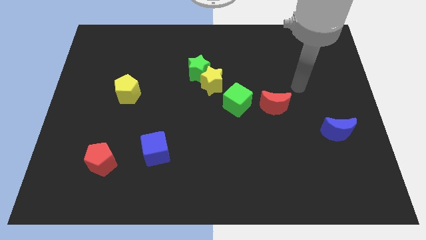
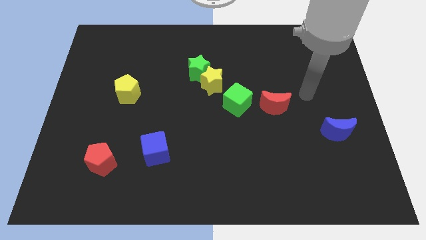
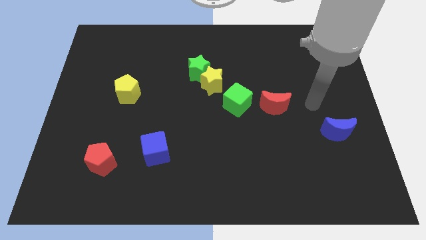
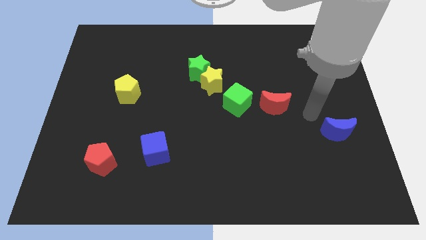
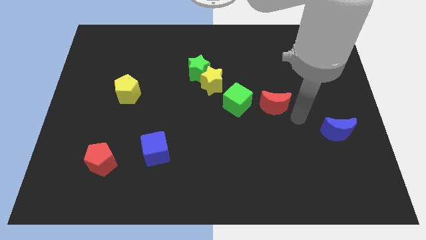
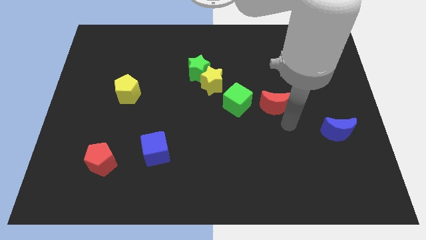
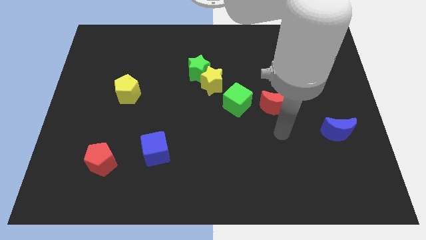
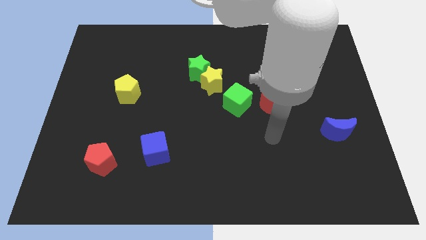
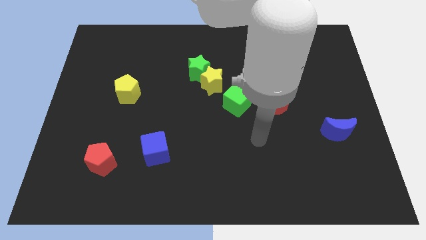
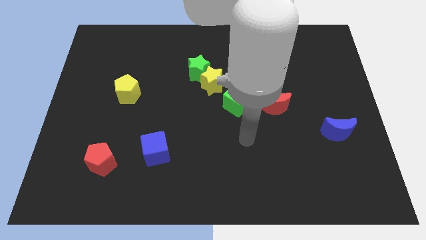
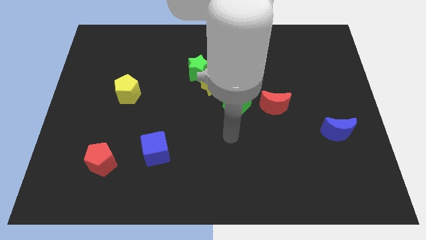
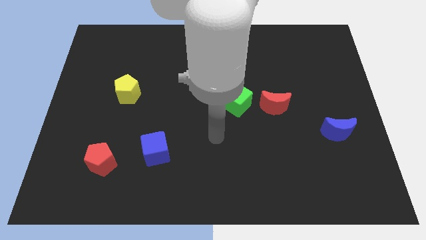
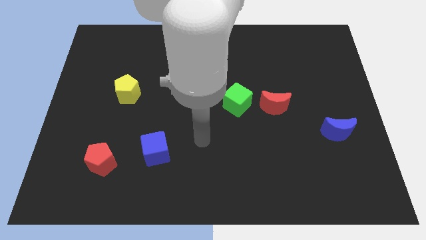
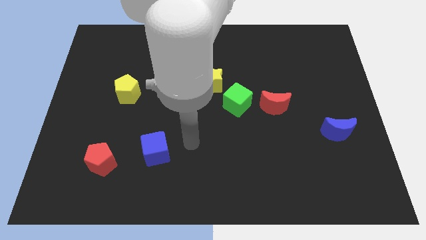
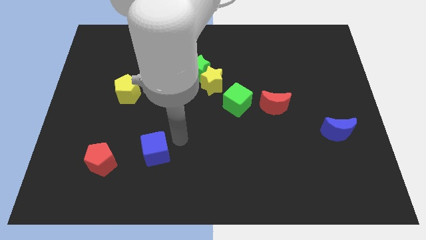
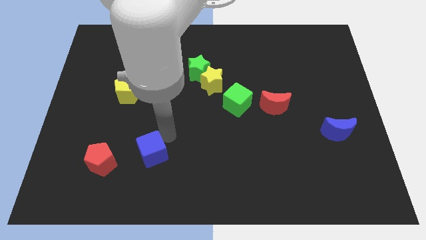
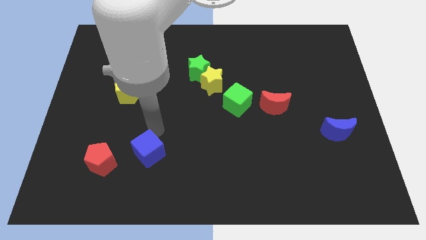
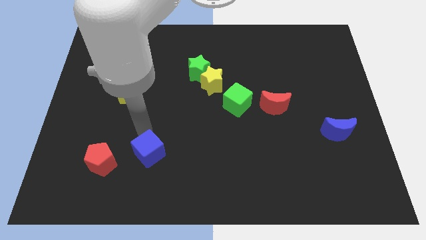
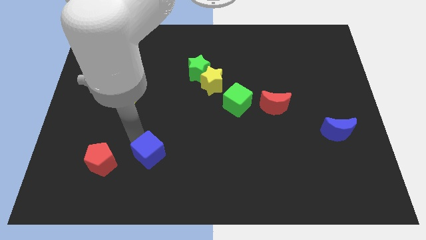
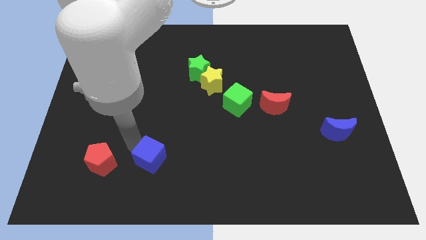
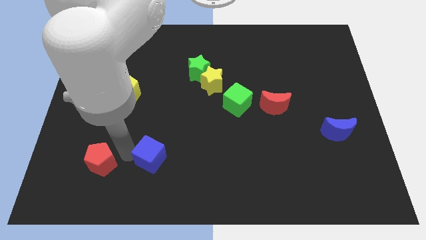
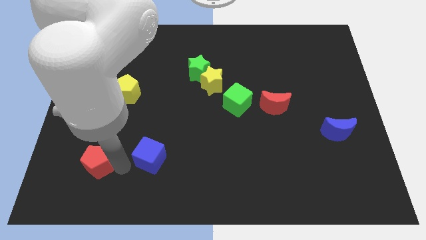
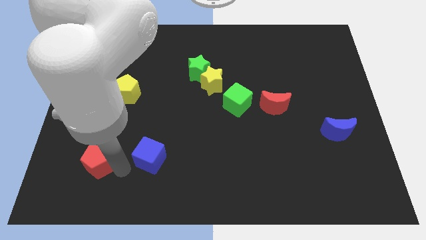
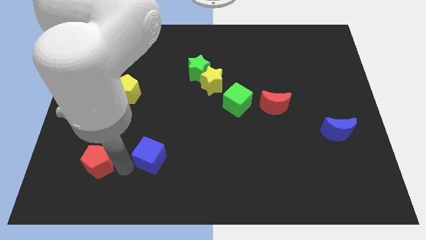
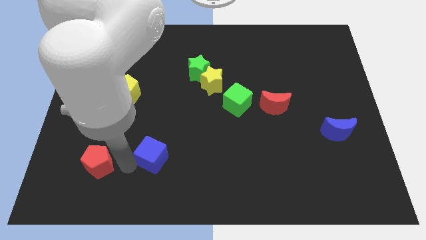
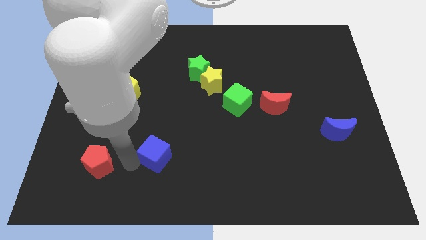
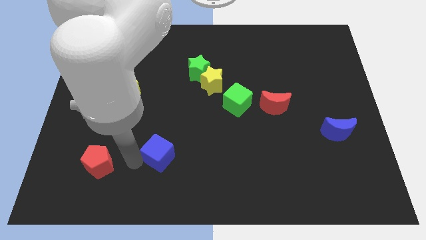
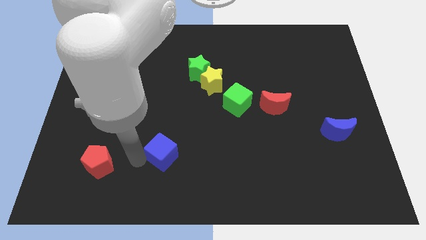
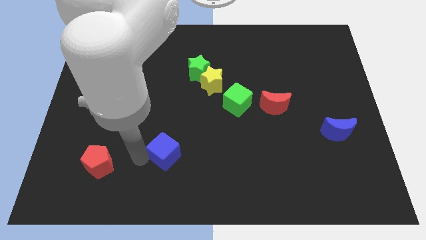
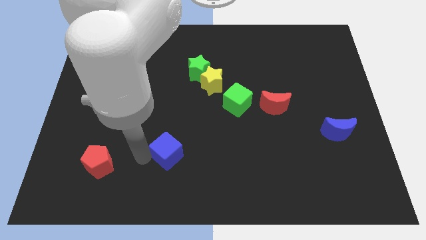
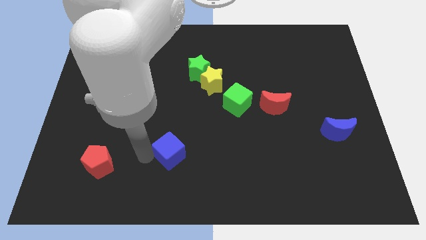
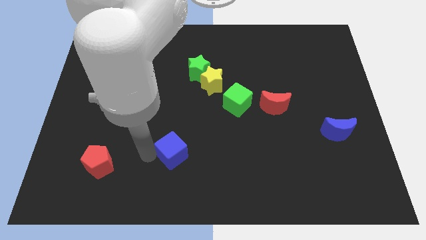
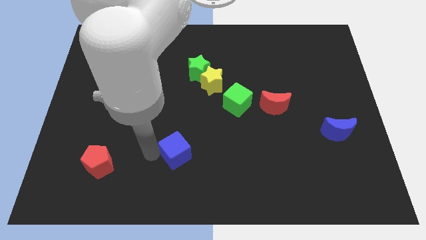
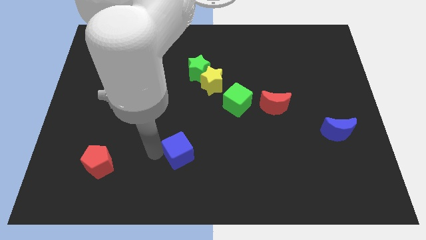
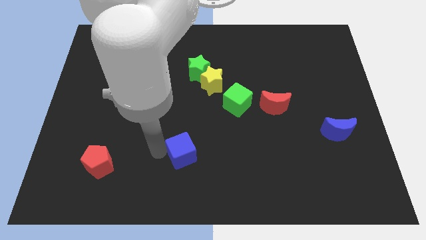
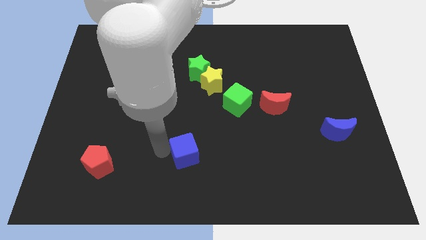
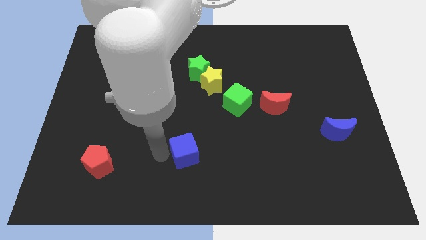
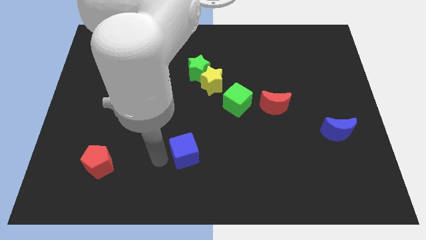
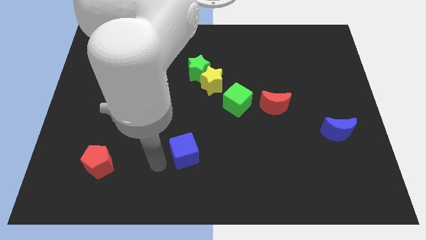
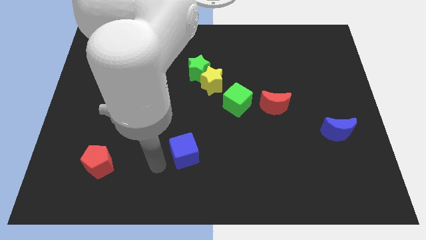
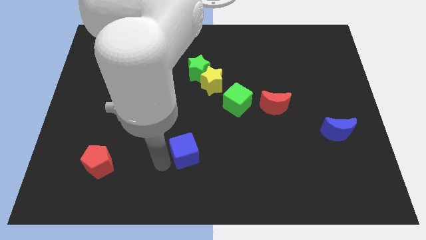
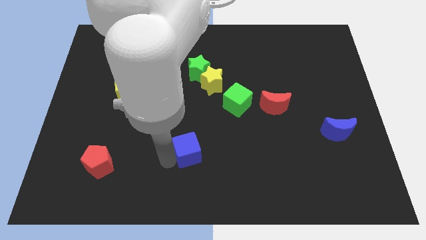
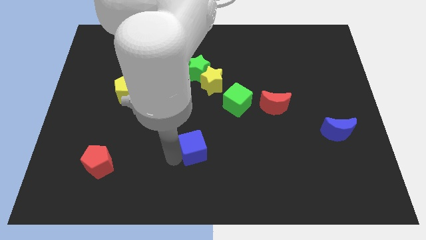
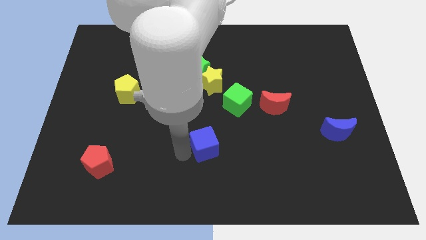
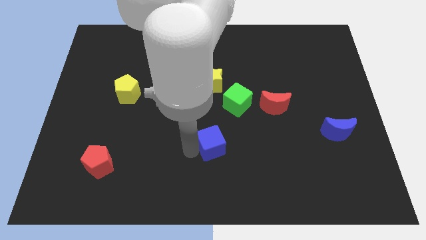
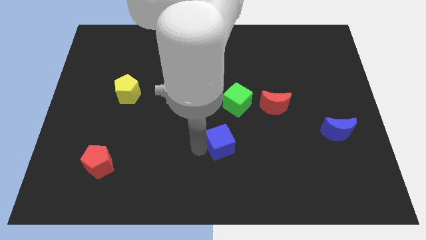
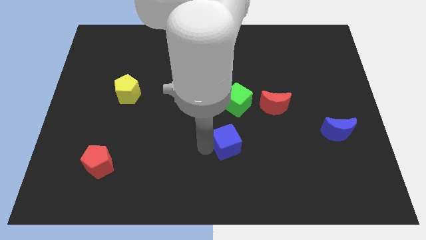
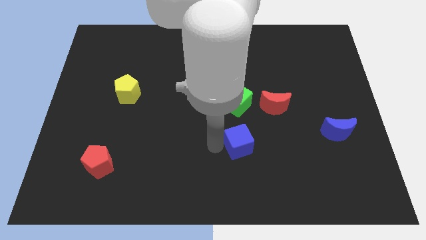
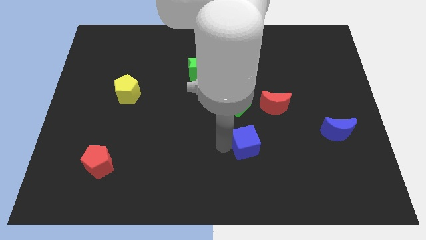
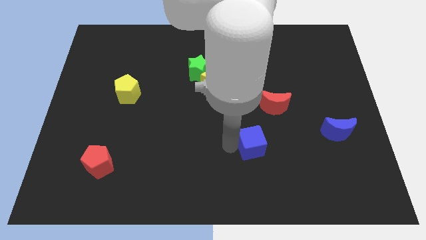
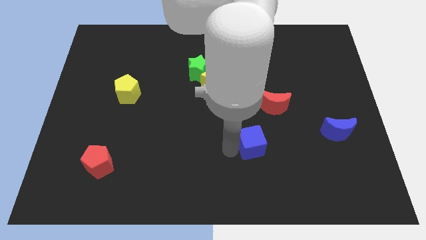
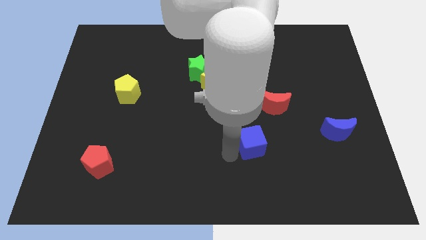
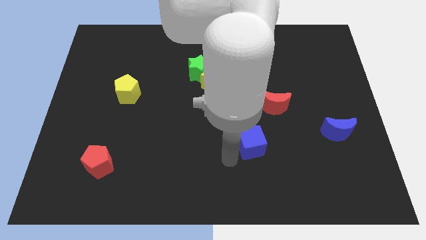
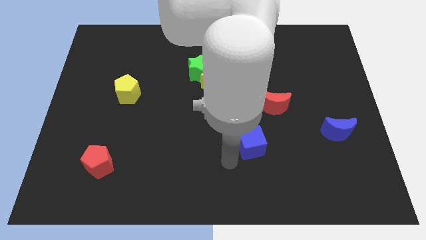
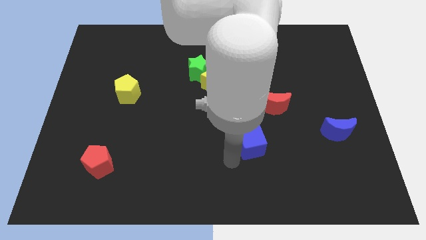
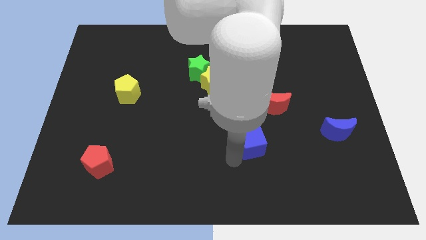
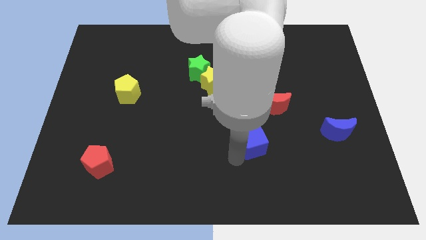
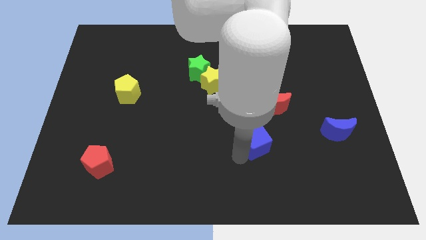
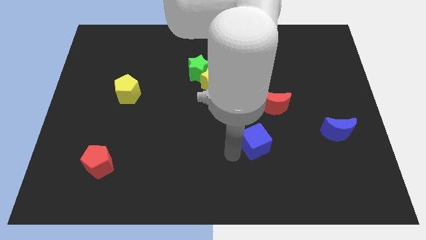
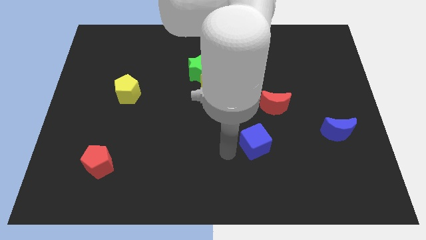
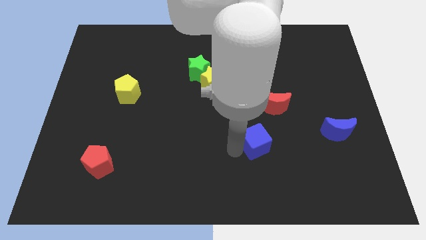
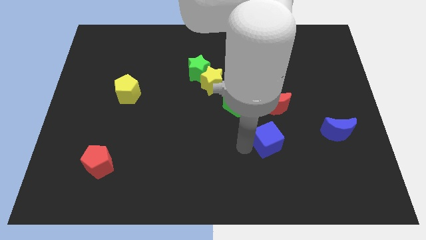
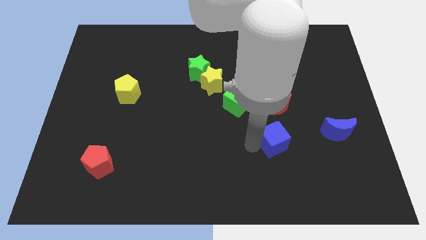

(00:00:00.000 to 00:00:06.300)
push the blue cube to the left of the blue moon

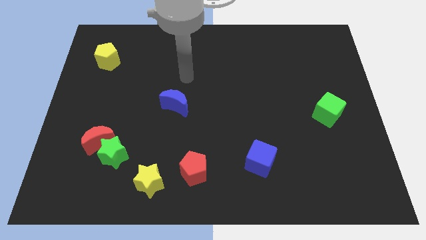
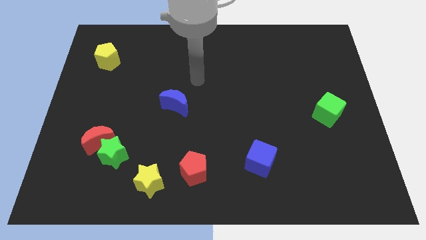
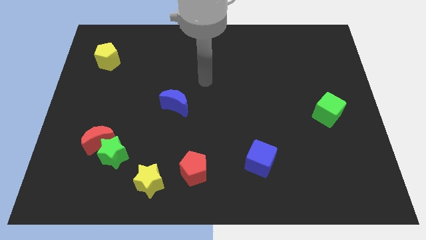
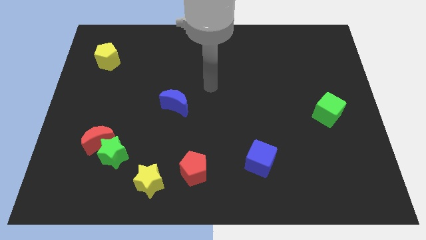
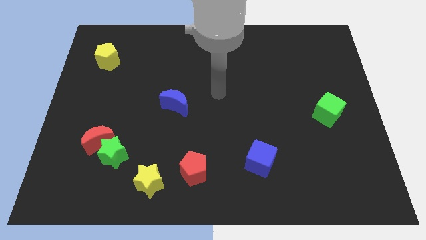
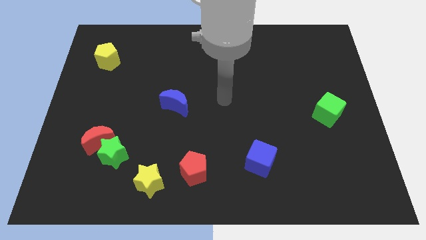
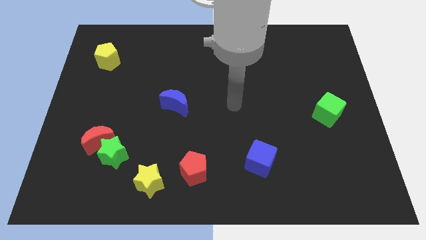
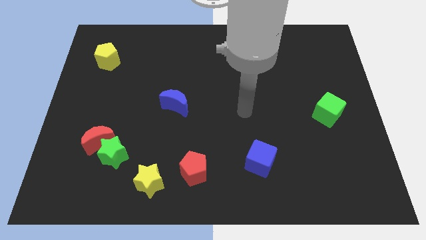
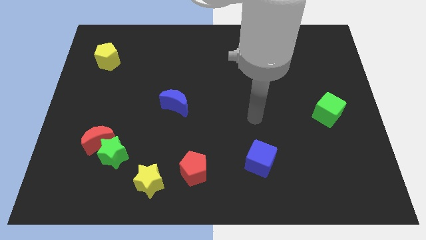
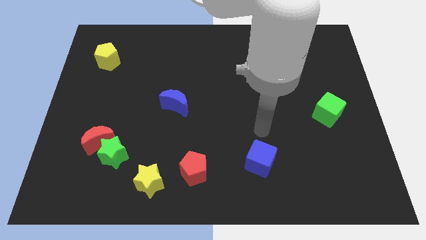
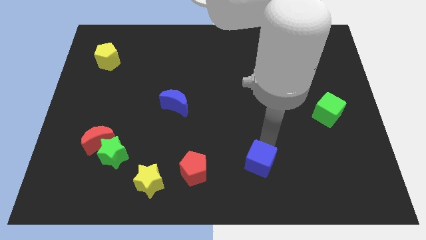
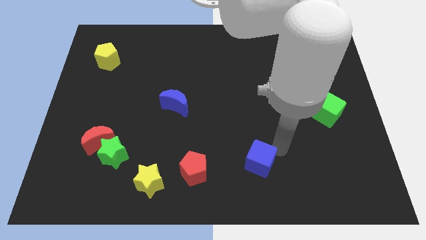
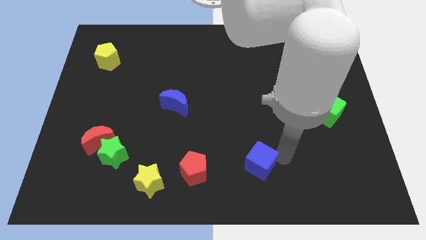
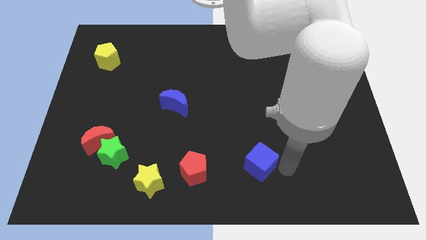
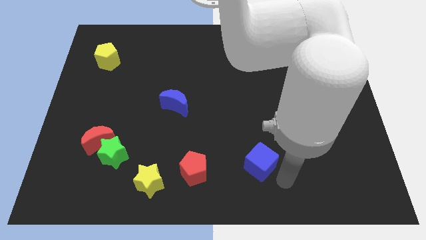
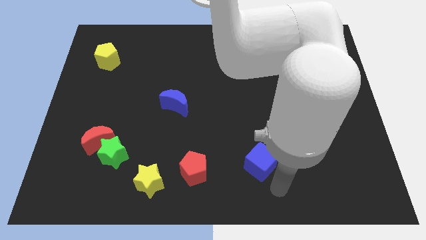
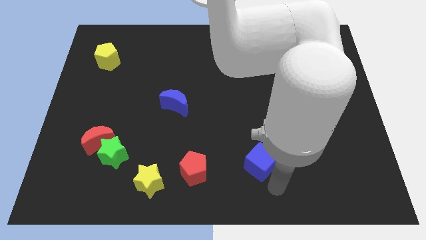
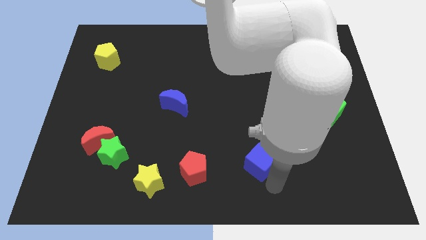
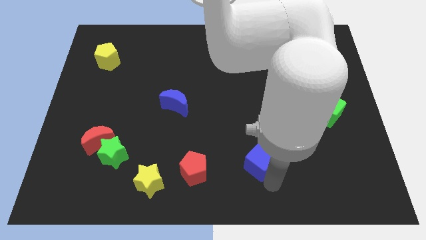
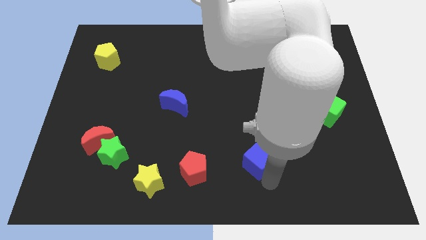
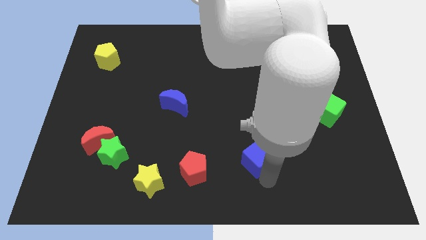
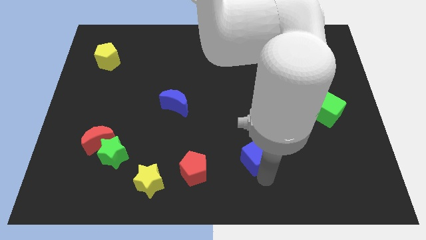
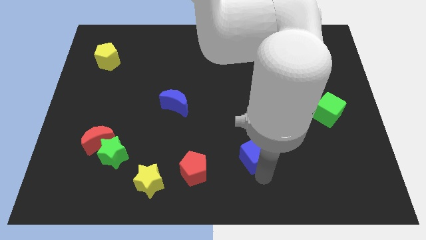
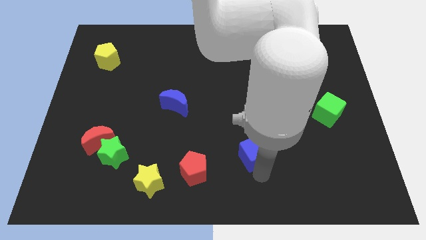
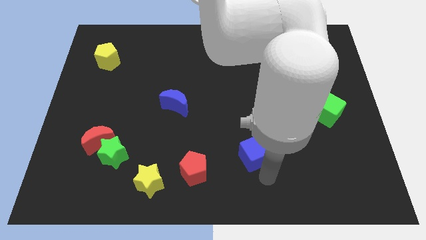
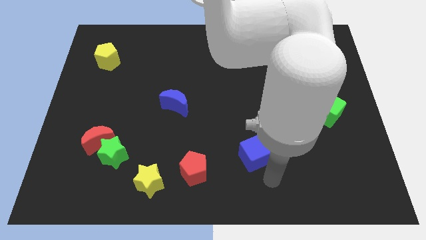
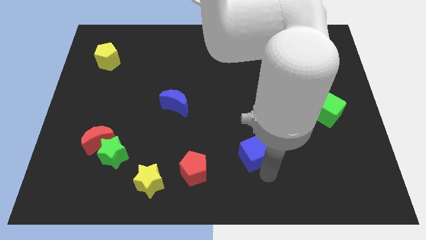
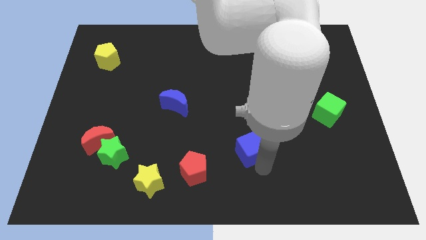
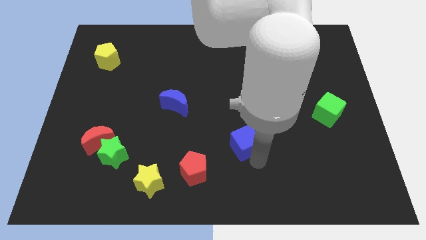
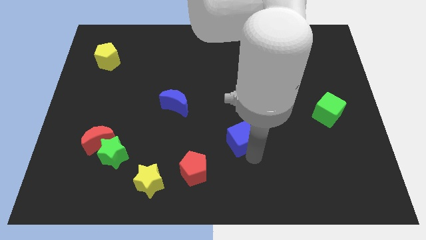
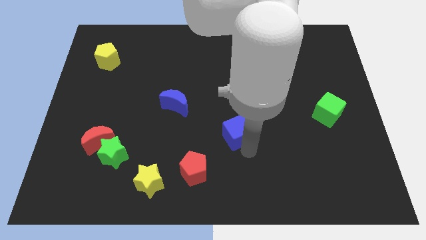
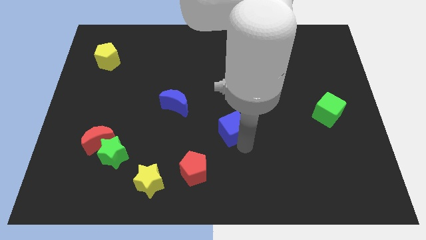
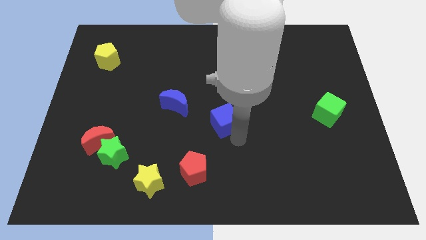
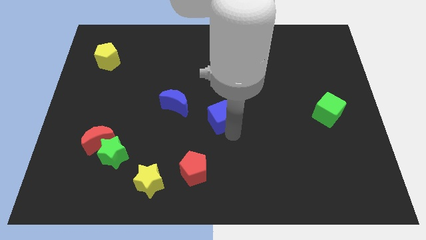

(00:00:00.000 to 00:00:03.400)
move the blue cube just right of the blue moon
